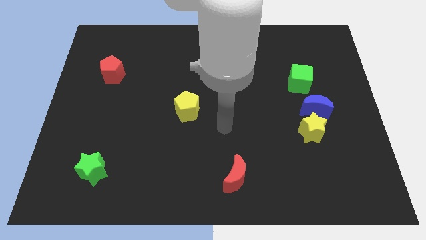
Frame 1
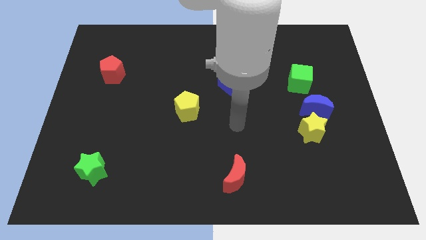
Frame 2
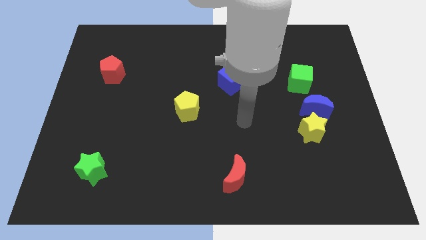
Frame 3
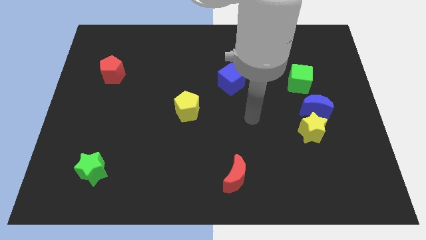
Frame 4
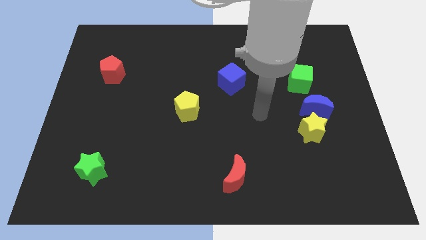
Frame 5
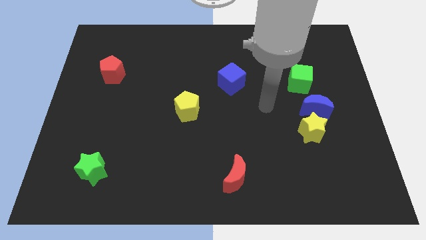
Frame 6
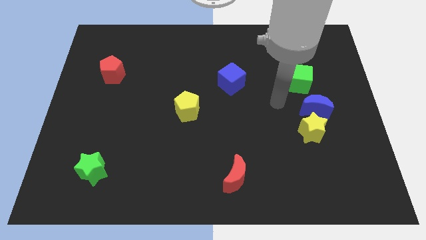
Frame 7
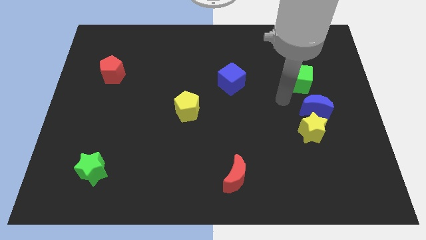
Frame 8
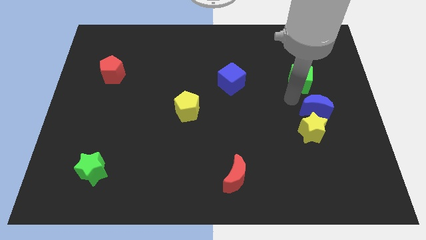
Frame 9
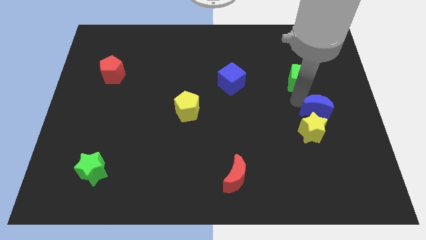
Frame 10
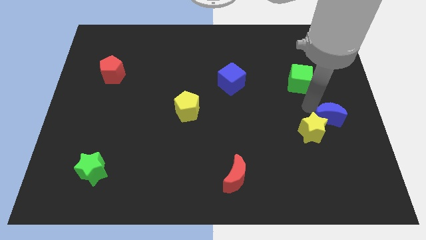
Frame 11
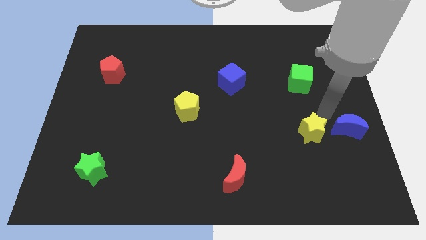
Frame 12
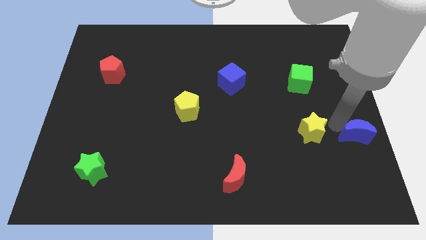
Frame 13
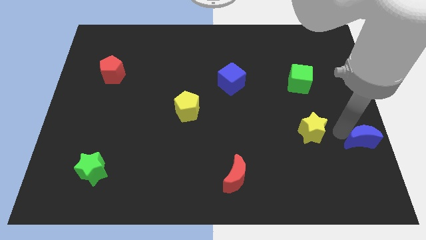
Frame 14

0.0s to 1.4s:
move the yellow star away from the blue moon

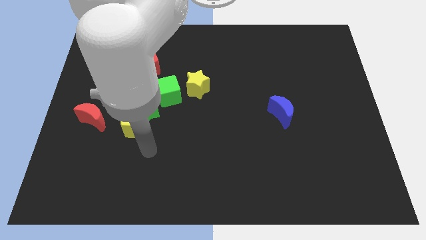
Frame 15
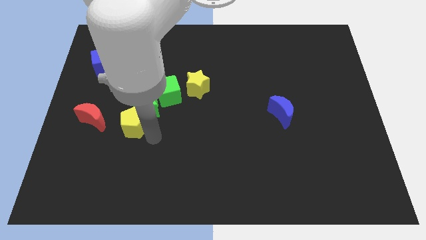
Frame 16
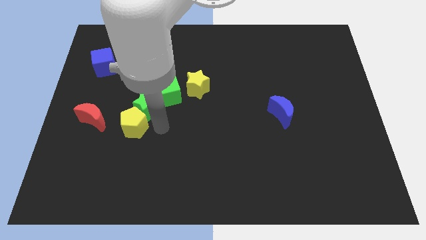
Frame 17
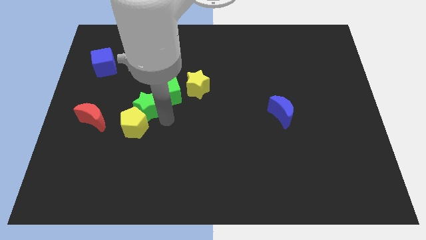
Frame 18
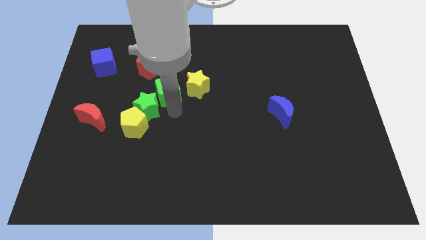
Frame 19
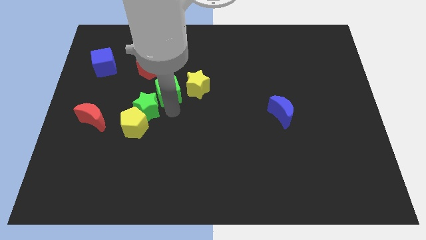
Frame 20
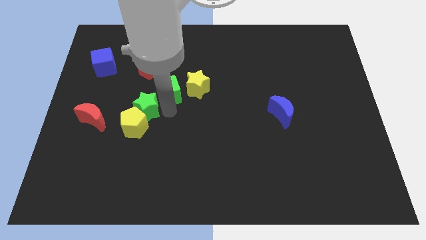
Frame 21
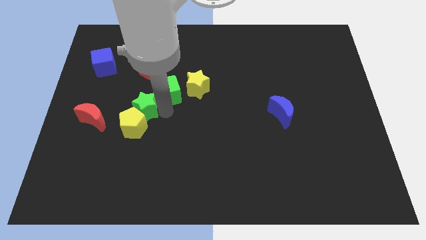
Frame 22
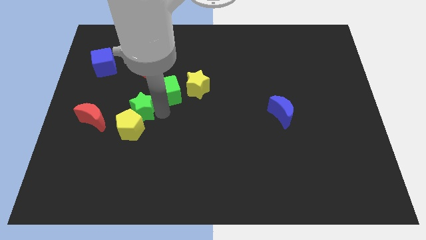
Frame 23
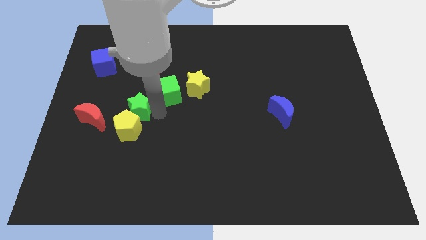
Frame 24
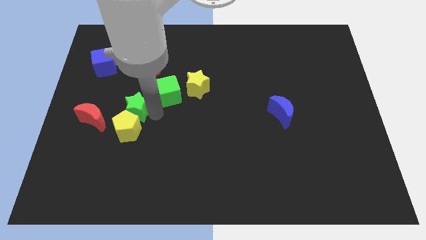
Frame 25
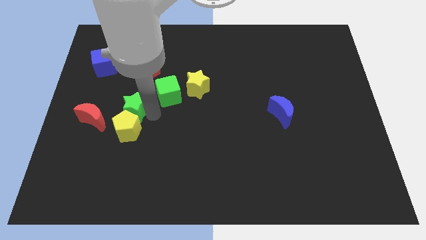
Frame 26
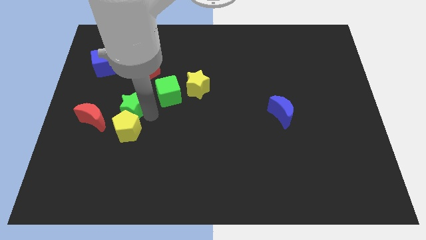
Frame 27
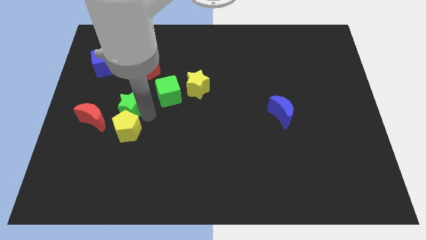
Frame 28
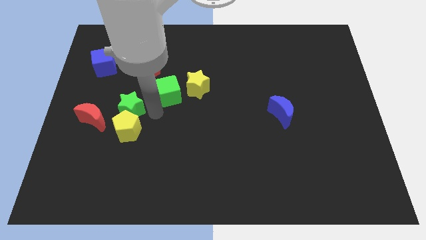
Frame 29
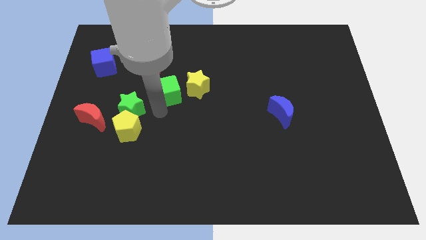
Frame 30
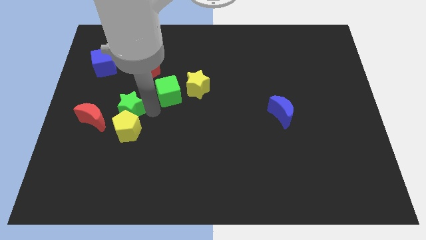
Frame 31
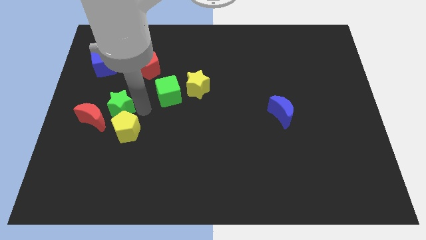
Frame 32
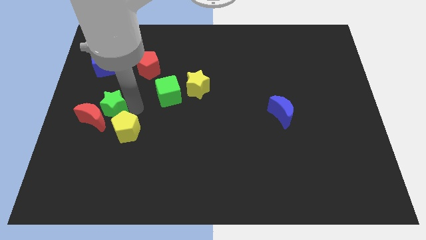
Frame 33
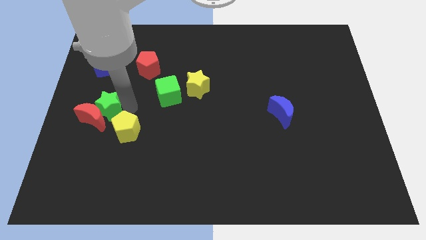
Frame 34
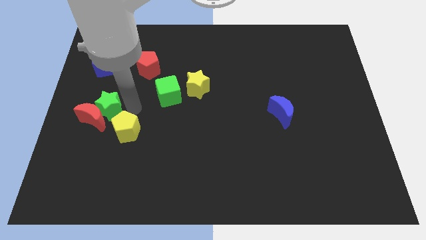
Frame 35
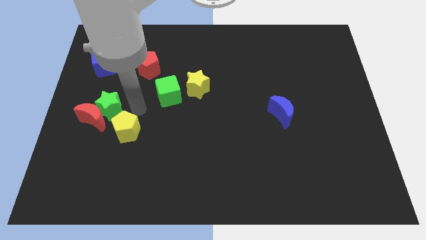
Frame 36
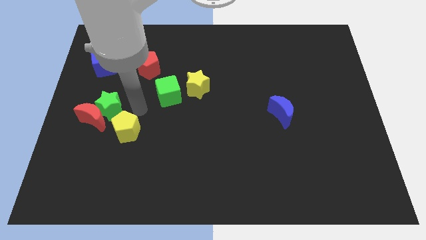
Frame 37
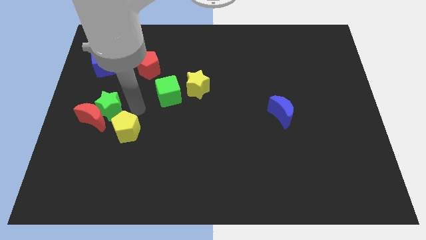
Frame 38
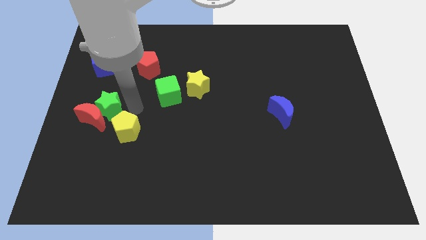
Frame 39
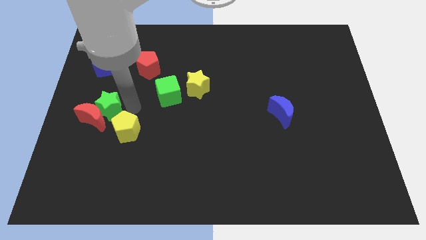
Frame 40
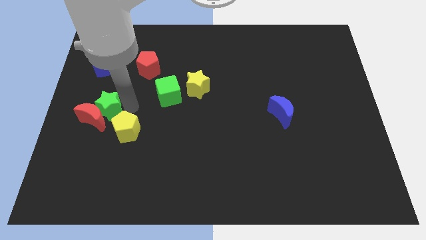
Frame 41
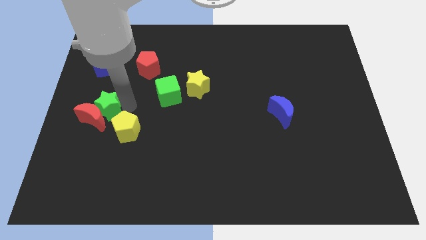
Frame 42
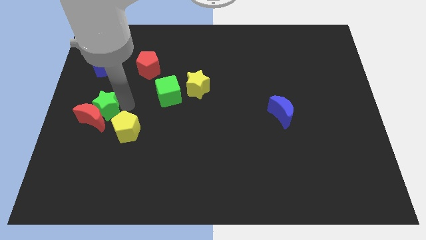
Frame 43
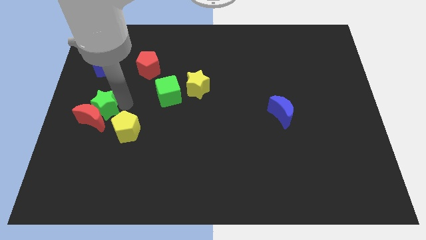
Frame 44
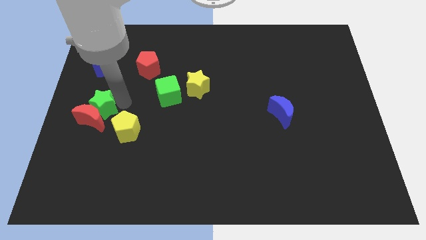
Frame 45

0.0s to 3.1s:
separate the green star from the yellow pentagon and green cube

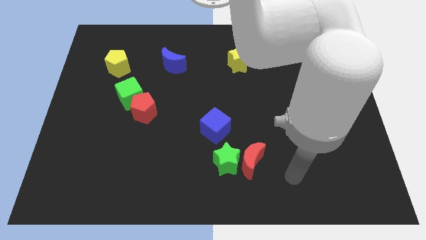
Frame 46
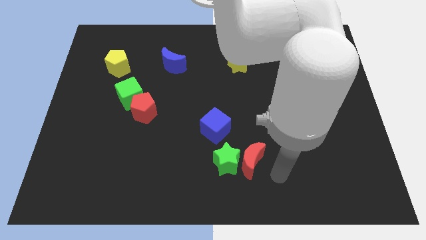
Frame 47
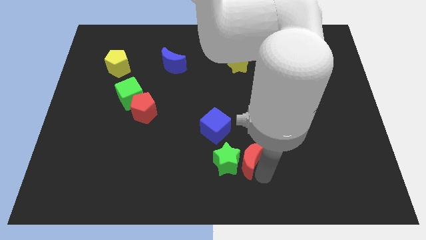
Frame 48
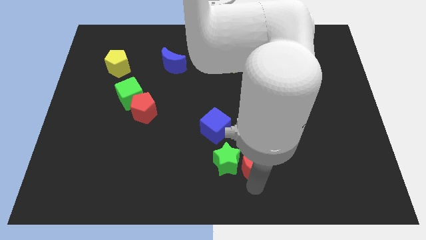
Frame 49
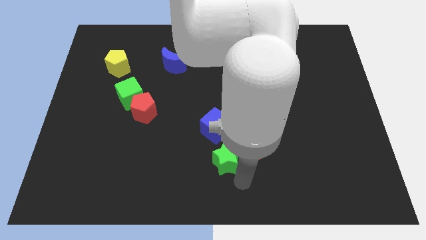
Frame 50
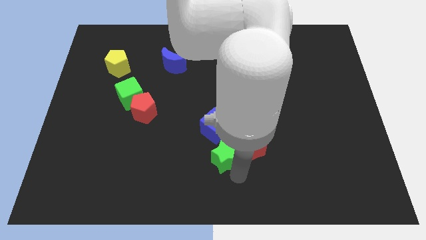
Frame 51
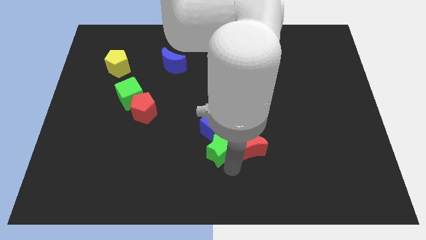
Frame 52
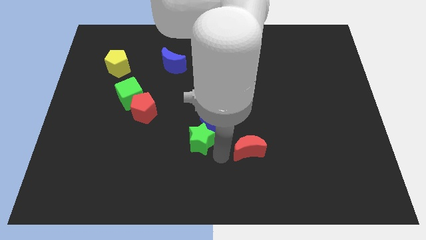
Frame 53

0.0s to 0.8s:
pull the red moon apart from the green star

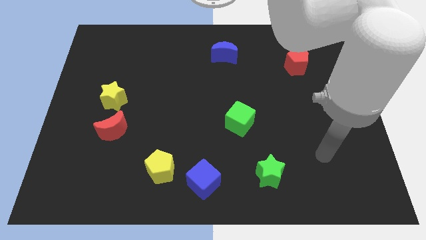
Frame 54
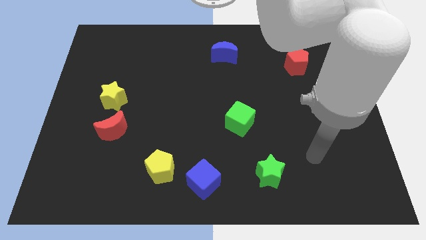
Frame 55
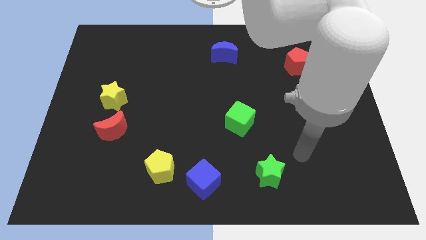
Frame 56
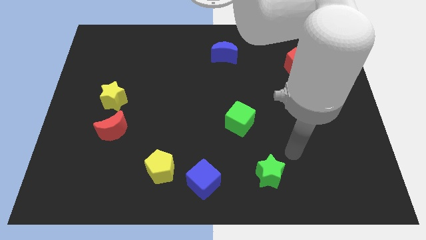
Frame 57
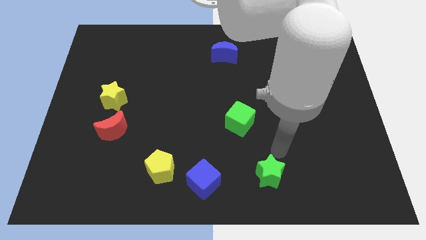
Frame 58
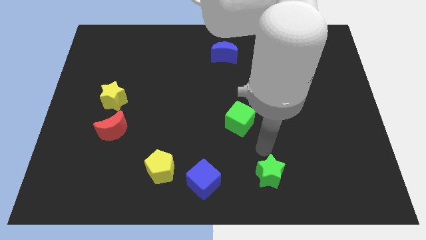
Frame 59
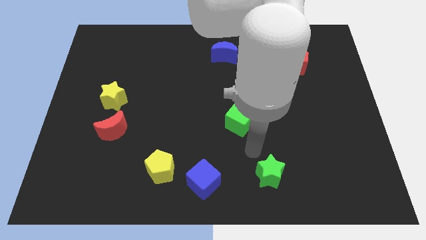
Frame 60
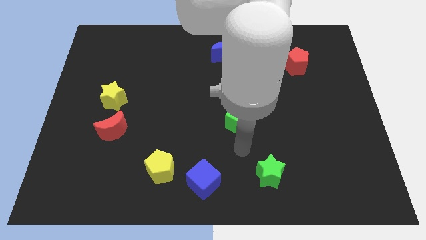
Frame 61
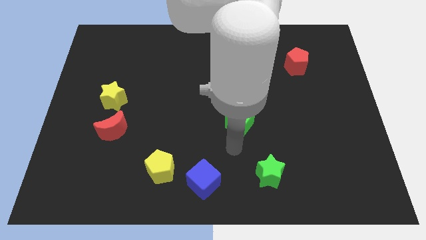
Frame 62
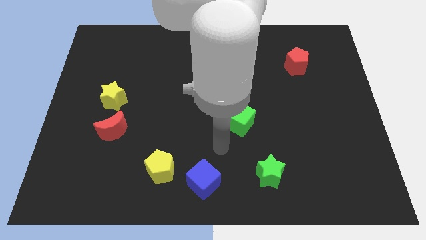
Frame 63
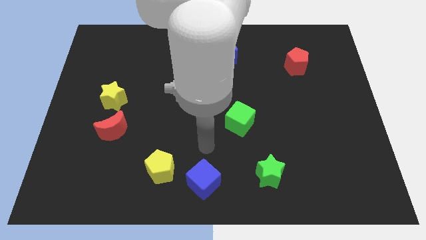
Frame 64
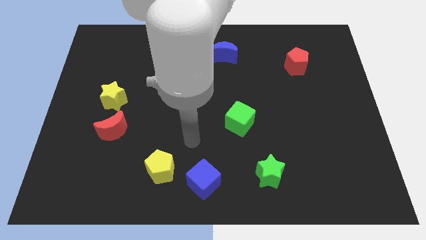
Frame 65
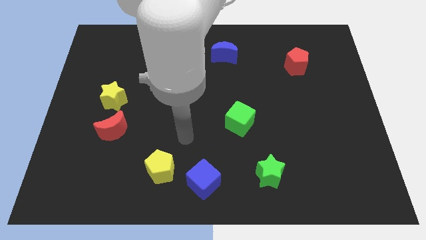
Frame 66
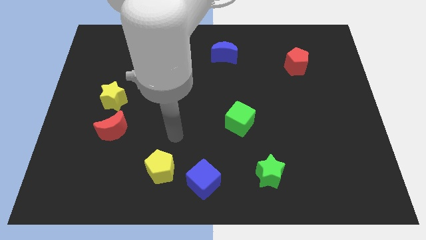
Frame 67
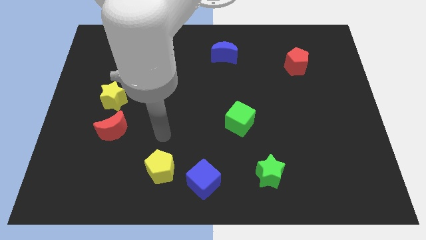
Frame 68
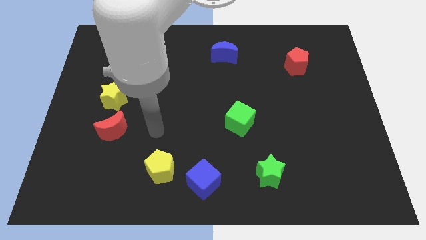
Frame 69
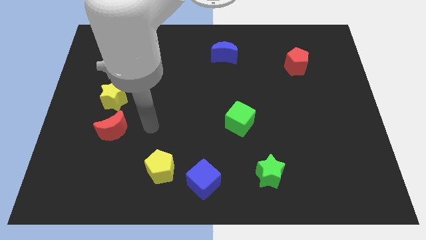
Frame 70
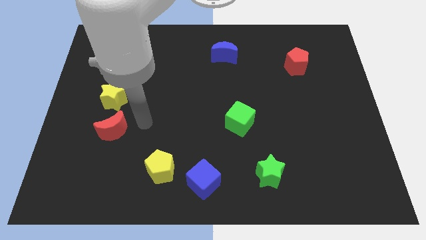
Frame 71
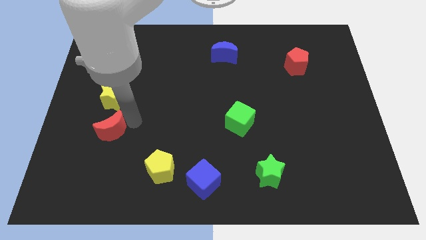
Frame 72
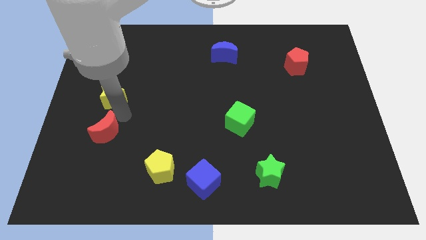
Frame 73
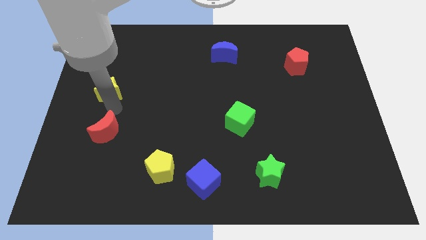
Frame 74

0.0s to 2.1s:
pull the red moon apart from the yellow star

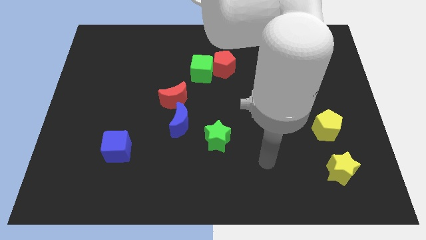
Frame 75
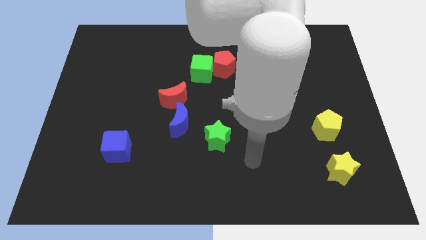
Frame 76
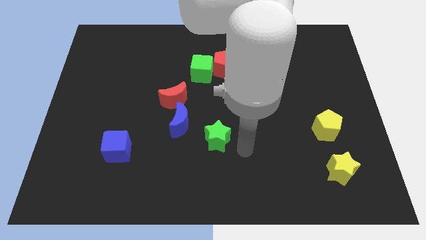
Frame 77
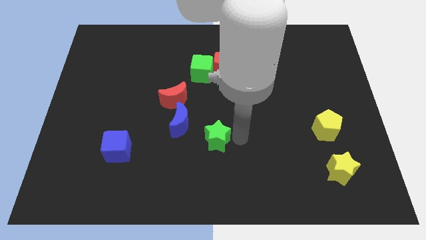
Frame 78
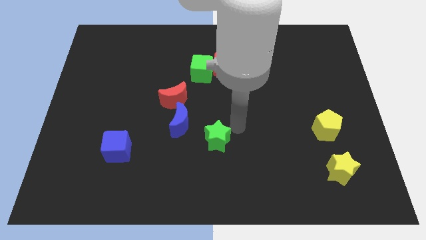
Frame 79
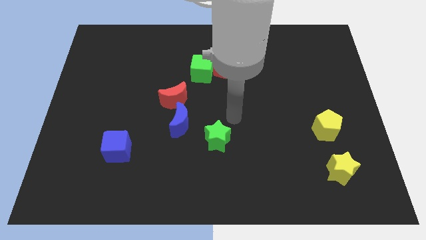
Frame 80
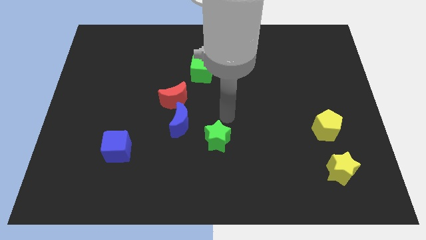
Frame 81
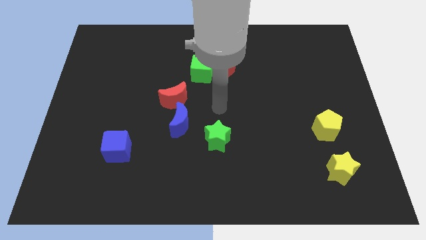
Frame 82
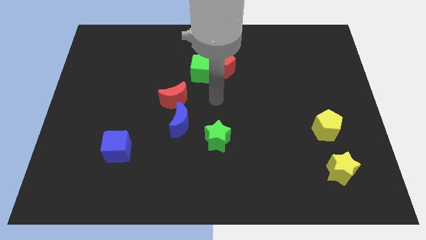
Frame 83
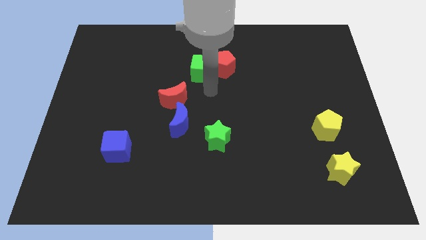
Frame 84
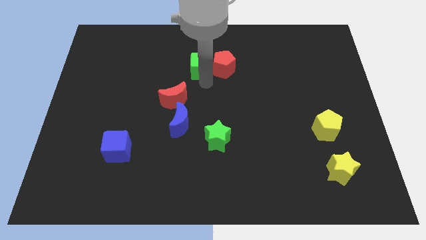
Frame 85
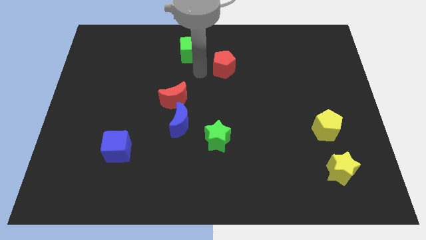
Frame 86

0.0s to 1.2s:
move the red pentagon away from the green cube

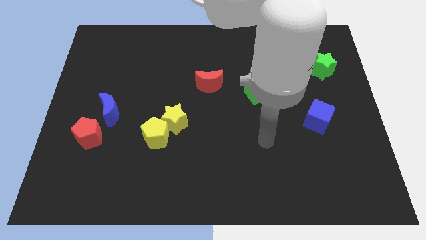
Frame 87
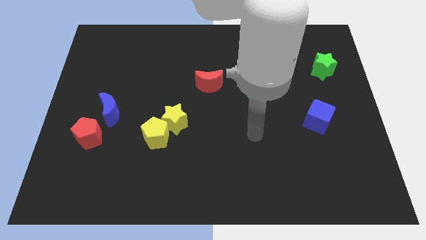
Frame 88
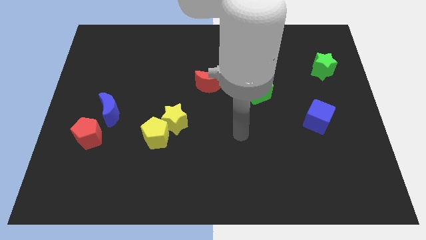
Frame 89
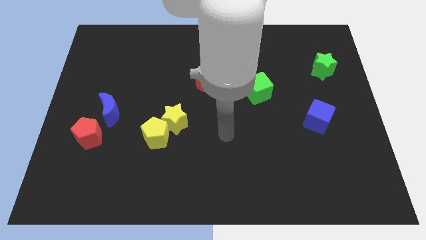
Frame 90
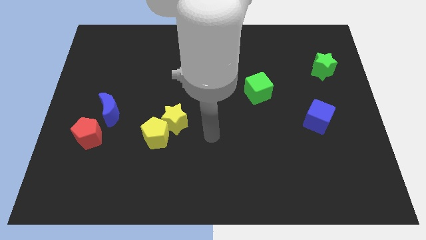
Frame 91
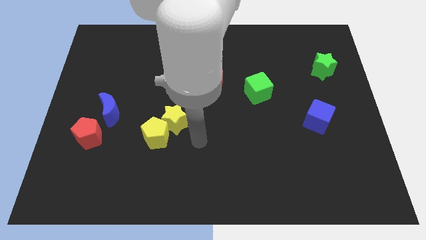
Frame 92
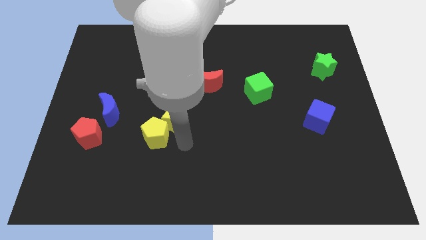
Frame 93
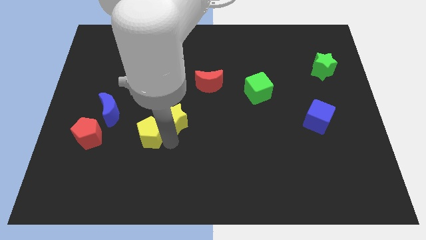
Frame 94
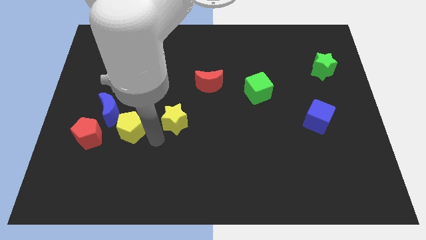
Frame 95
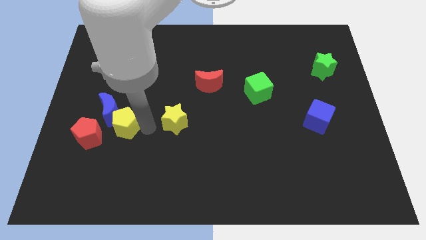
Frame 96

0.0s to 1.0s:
move the yellow star away from the yellow pentagon
